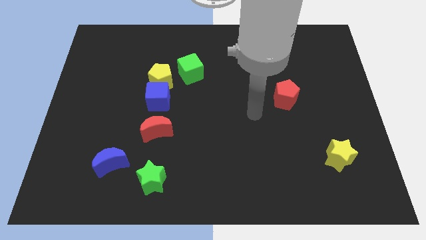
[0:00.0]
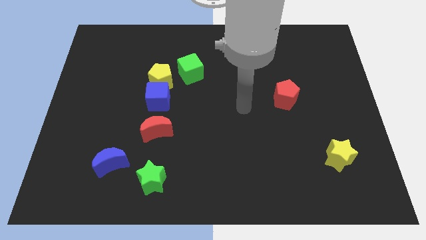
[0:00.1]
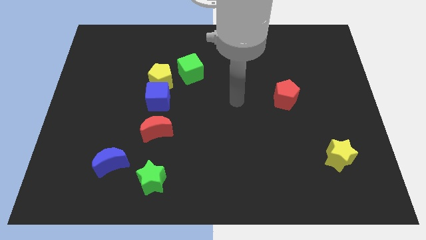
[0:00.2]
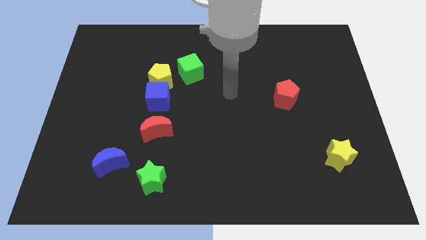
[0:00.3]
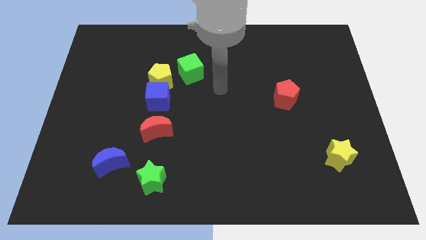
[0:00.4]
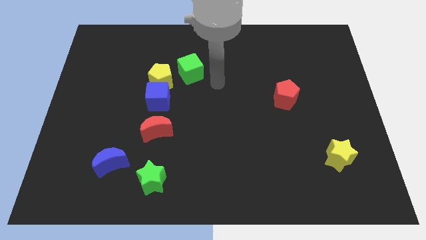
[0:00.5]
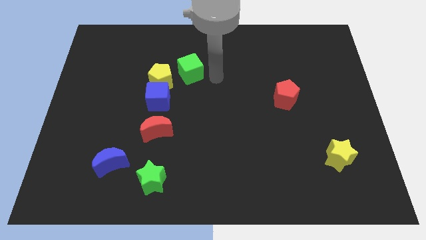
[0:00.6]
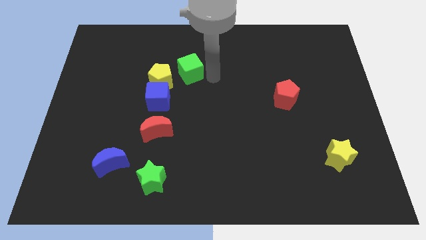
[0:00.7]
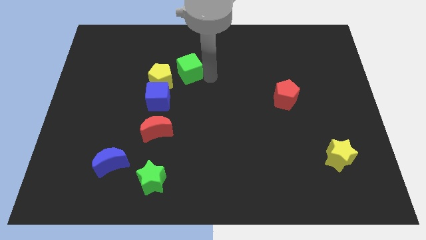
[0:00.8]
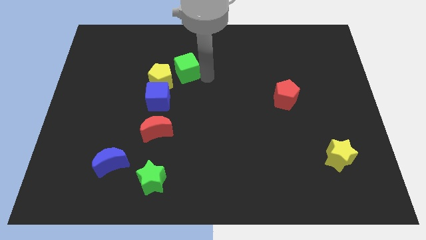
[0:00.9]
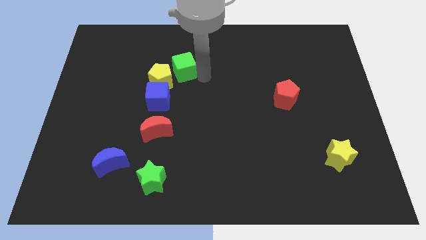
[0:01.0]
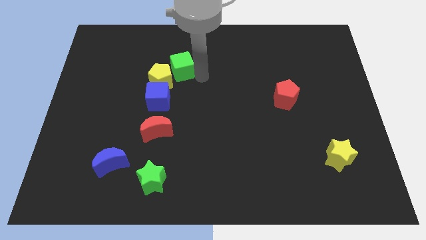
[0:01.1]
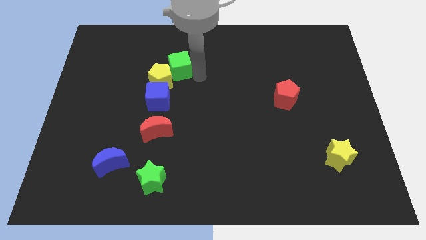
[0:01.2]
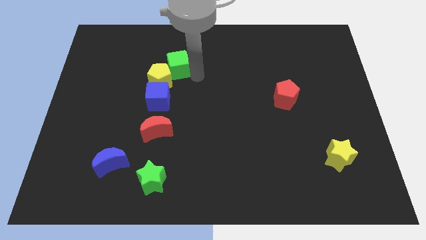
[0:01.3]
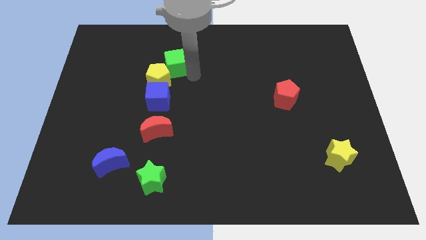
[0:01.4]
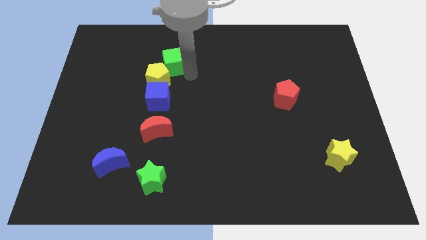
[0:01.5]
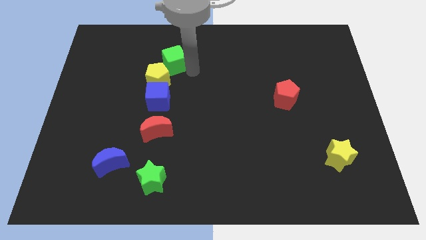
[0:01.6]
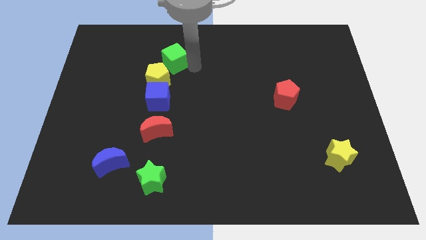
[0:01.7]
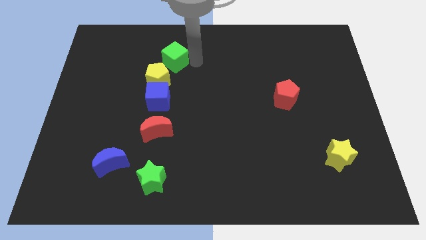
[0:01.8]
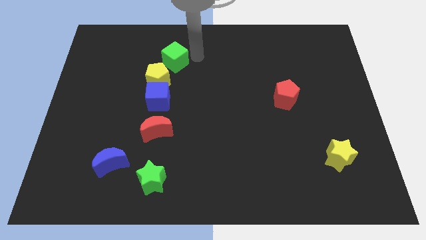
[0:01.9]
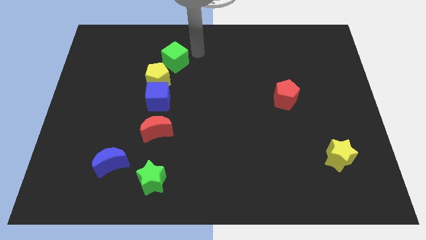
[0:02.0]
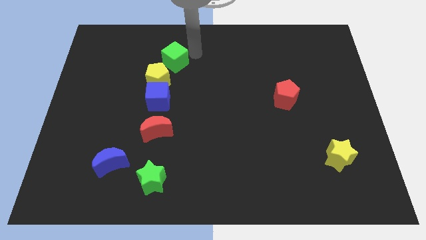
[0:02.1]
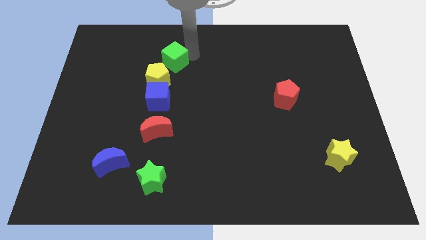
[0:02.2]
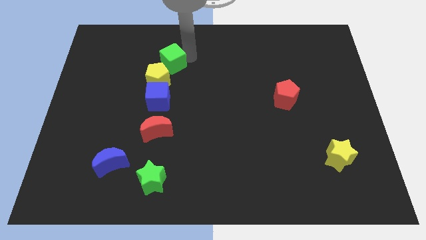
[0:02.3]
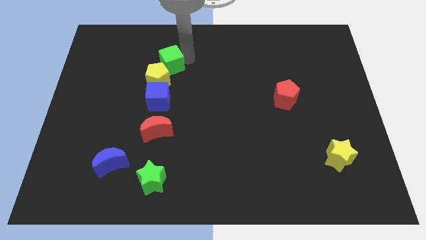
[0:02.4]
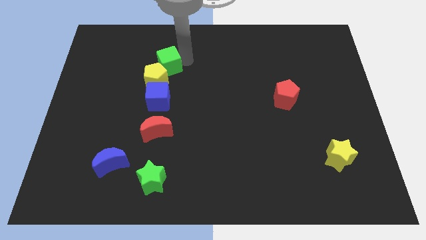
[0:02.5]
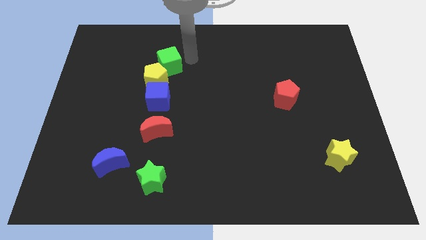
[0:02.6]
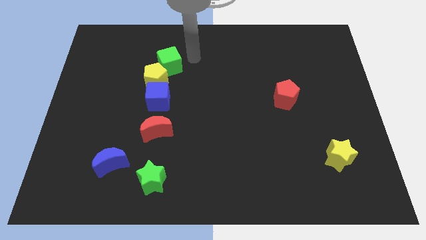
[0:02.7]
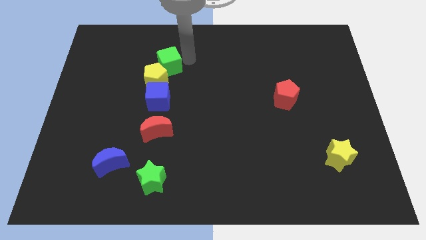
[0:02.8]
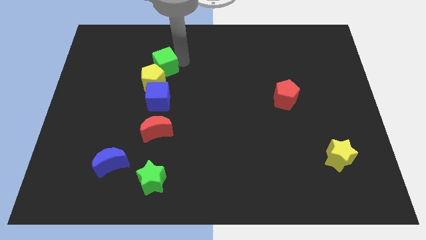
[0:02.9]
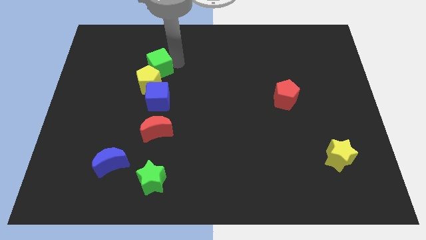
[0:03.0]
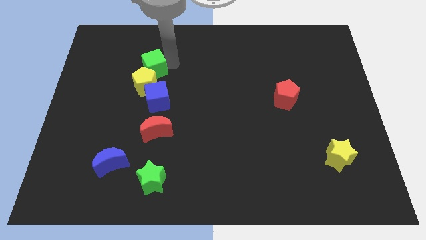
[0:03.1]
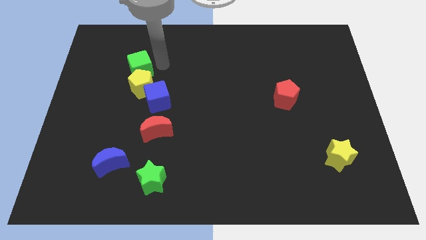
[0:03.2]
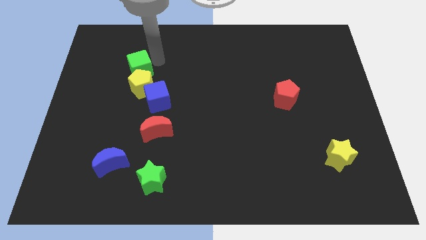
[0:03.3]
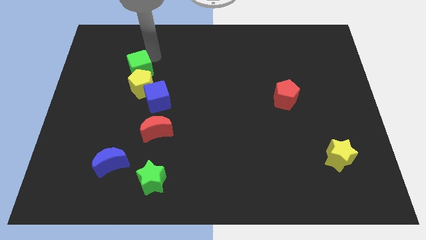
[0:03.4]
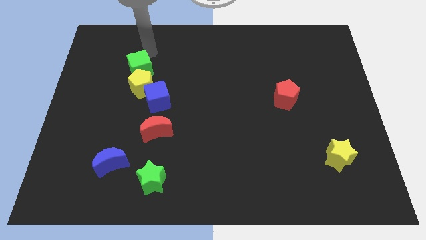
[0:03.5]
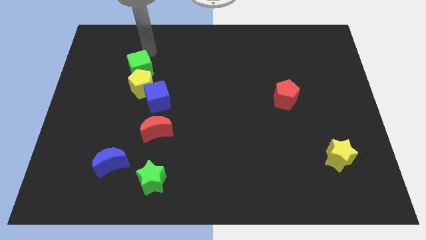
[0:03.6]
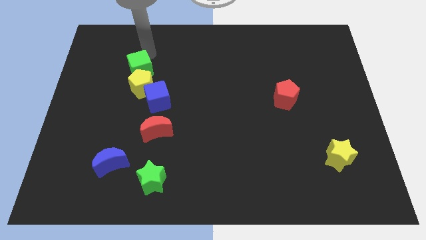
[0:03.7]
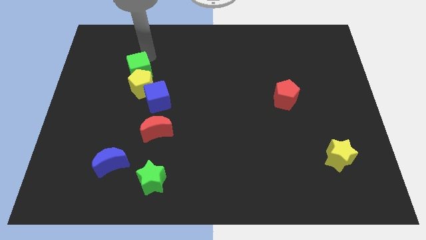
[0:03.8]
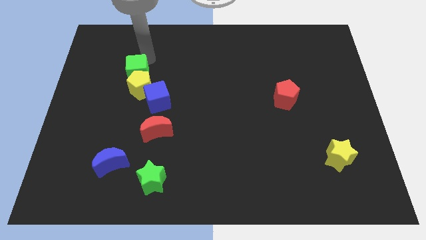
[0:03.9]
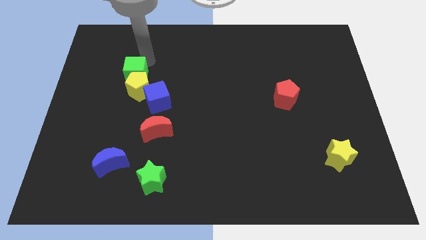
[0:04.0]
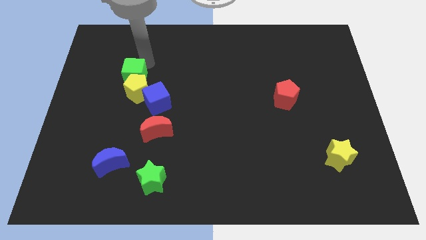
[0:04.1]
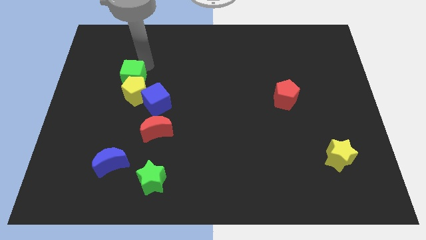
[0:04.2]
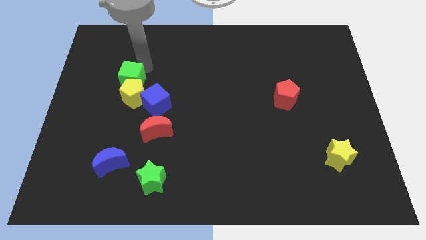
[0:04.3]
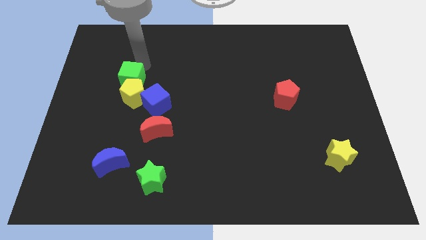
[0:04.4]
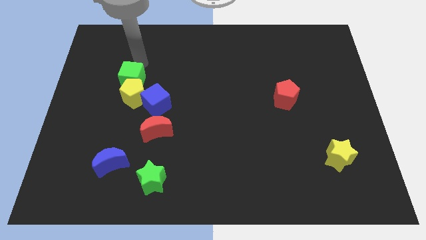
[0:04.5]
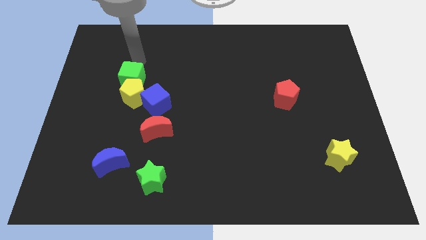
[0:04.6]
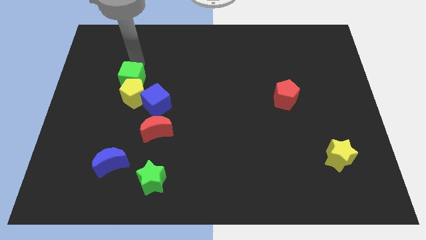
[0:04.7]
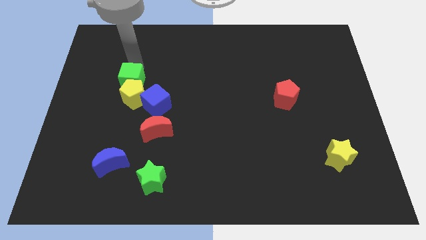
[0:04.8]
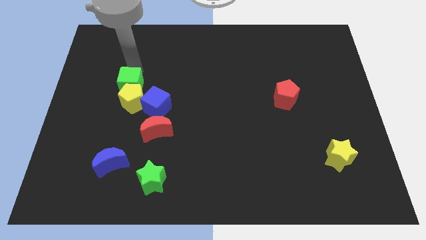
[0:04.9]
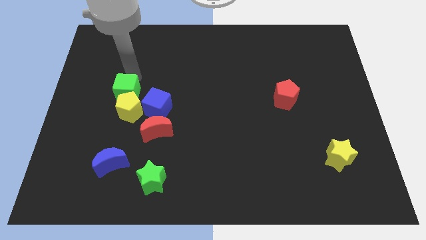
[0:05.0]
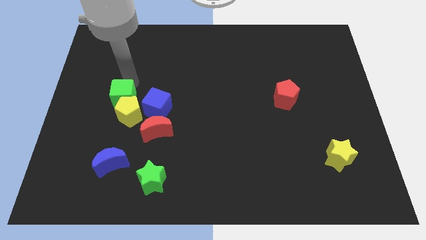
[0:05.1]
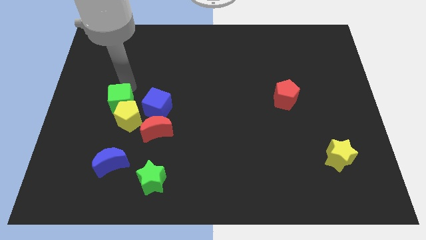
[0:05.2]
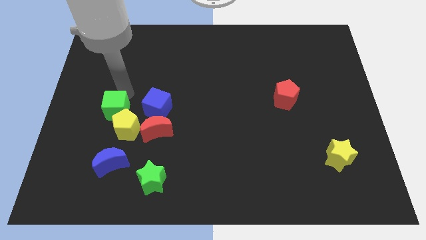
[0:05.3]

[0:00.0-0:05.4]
move the green cube down and left diagonally

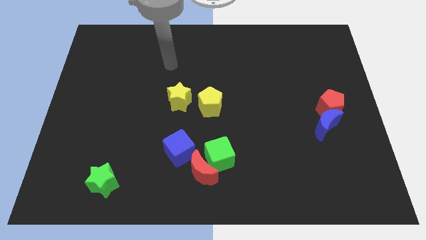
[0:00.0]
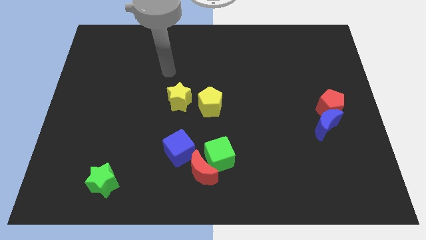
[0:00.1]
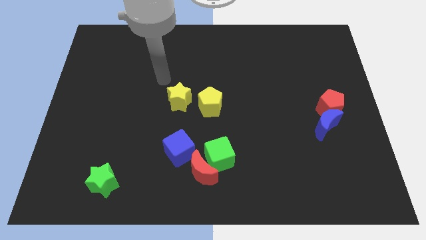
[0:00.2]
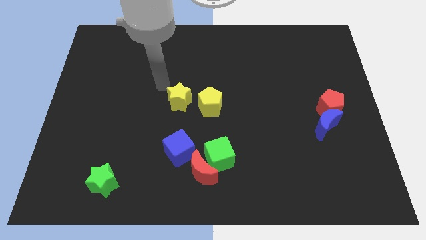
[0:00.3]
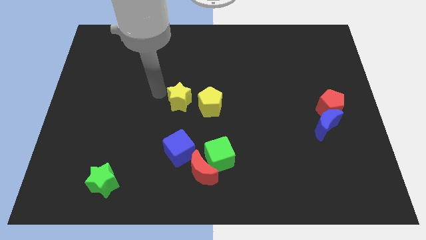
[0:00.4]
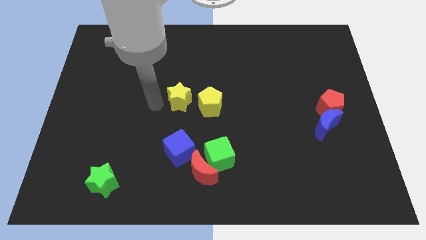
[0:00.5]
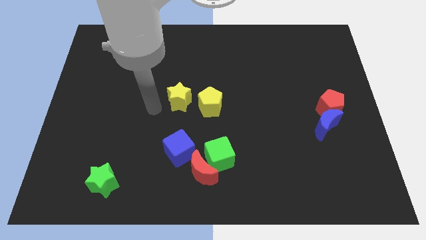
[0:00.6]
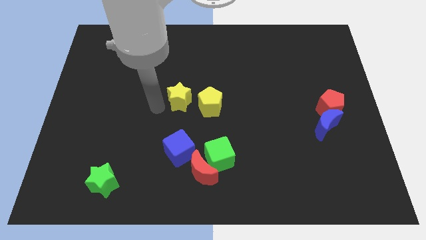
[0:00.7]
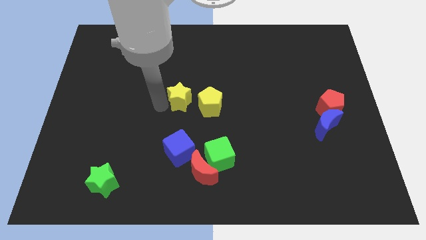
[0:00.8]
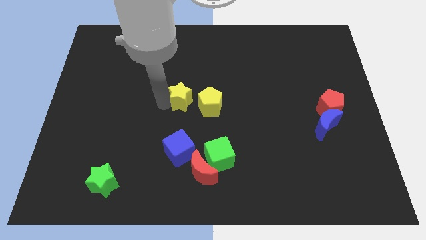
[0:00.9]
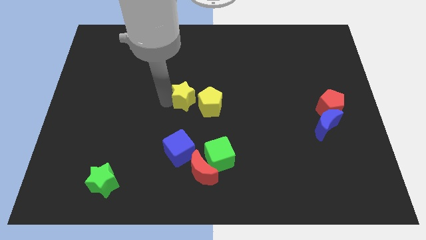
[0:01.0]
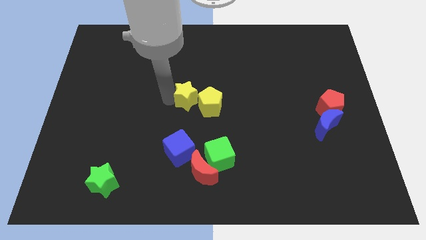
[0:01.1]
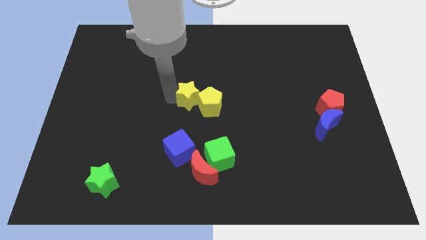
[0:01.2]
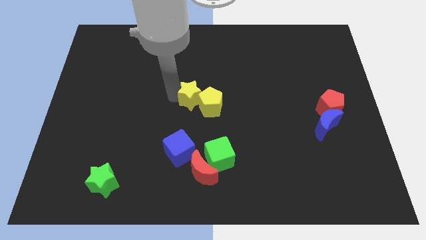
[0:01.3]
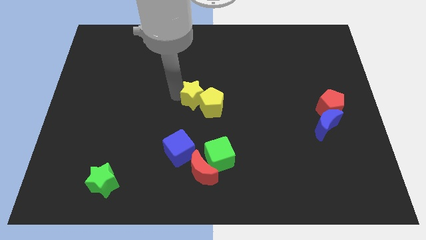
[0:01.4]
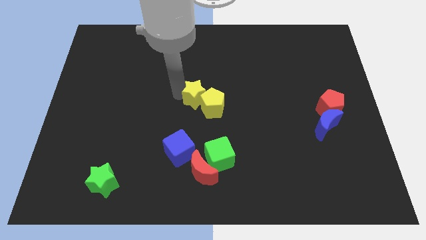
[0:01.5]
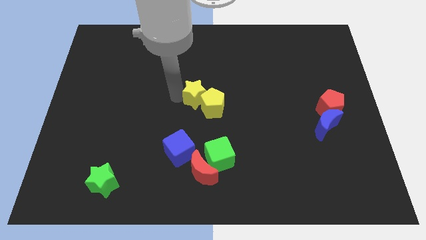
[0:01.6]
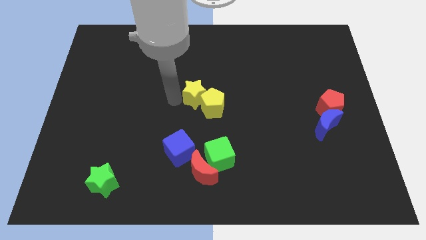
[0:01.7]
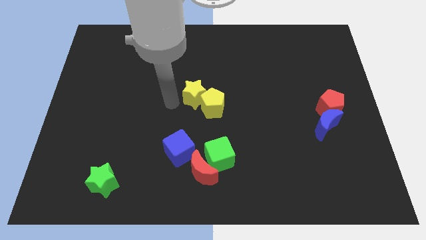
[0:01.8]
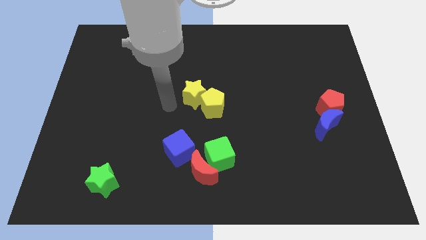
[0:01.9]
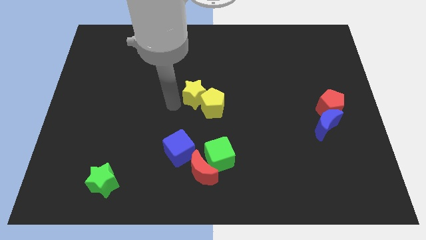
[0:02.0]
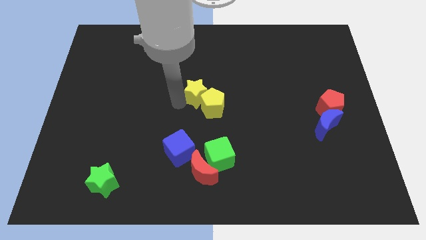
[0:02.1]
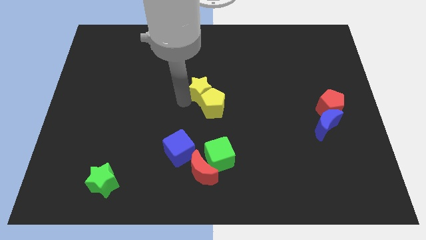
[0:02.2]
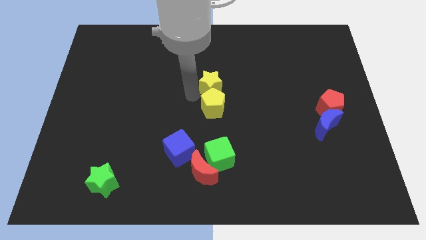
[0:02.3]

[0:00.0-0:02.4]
slightly push the yellow star to the right

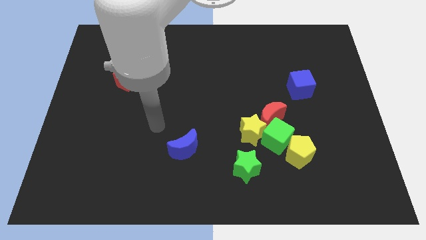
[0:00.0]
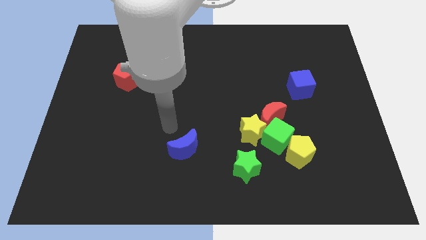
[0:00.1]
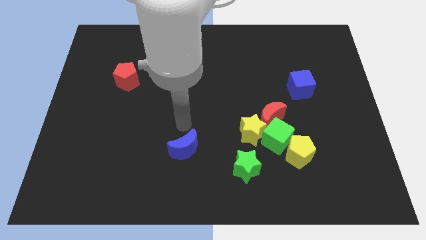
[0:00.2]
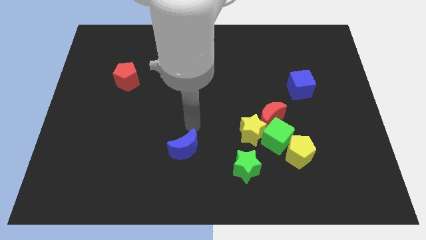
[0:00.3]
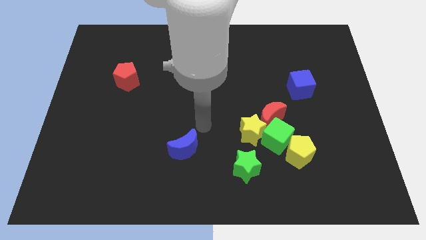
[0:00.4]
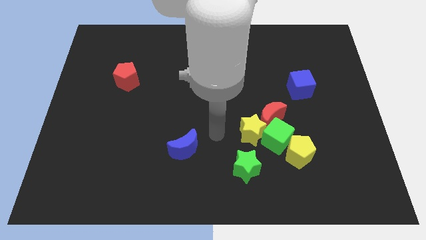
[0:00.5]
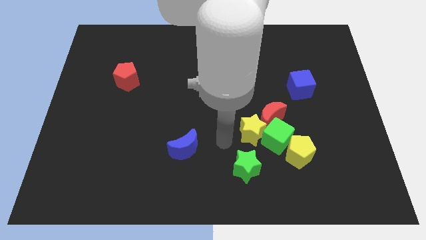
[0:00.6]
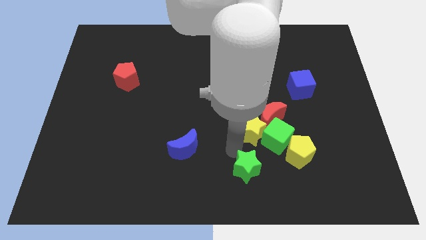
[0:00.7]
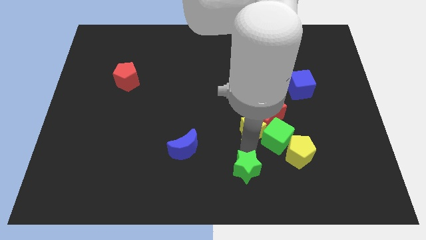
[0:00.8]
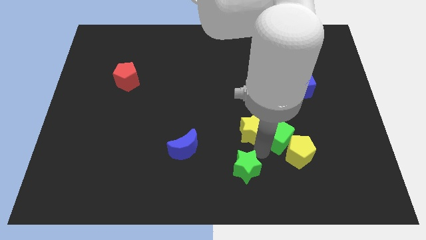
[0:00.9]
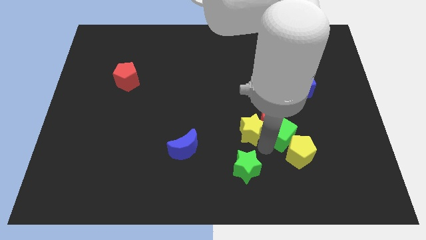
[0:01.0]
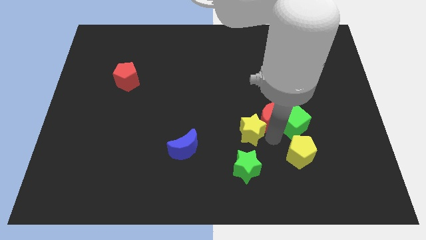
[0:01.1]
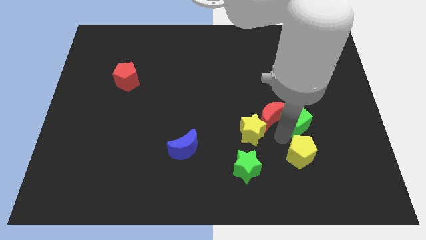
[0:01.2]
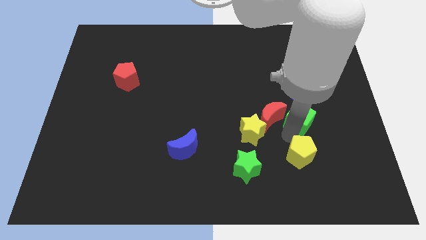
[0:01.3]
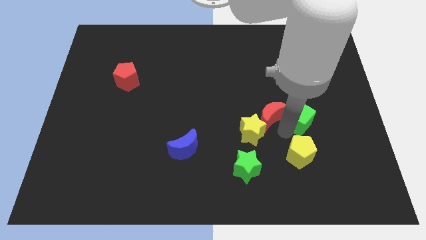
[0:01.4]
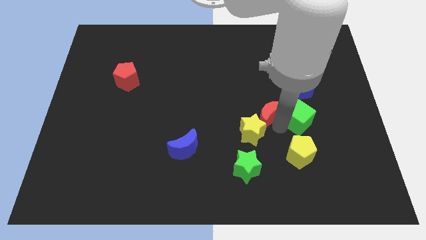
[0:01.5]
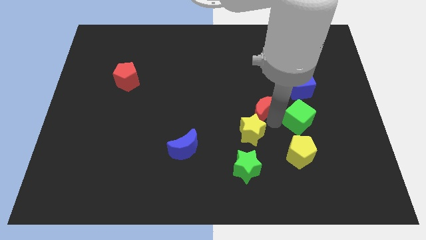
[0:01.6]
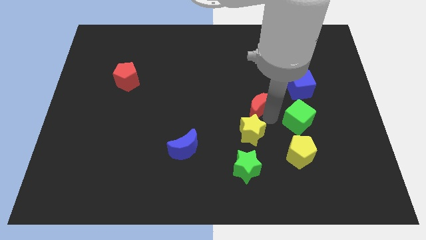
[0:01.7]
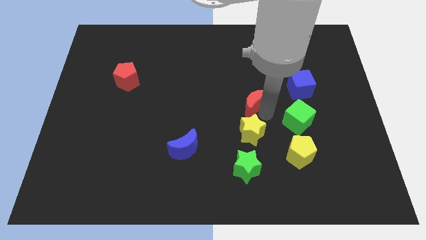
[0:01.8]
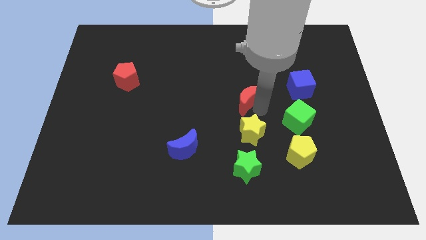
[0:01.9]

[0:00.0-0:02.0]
push the red moon a bit upwards and then to the left
